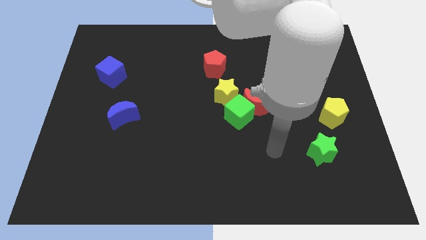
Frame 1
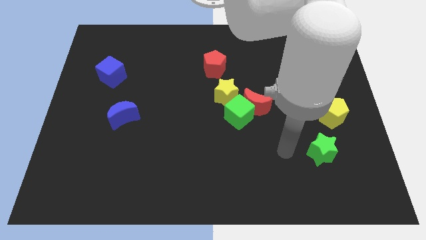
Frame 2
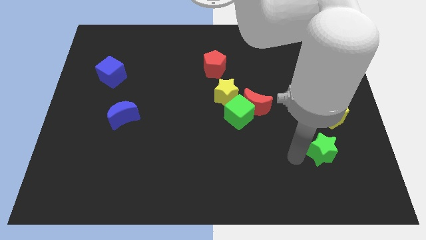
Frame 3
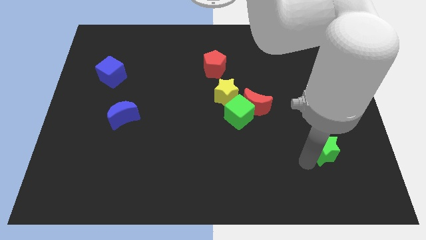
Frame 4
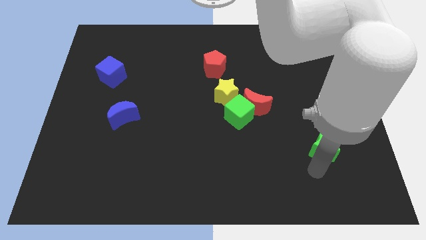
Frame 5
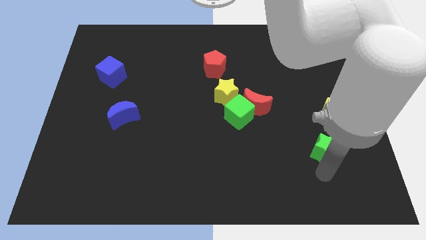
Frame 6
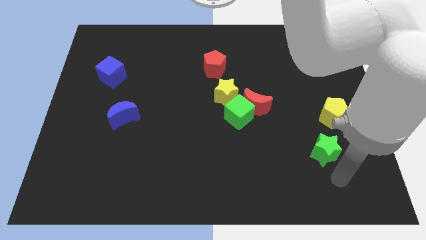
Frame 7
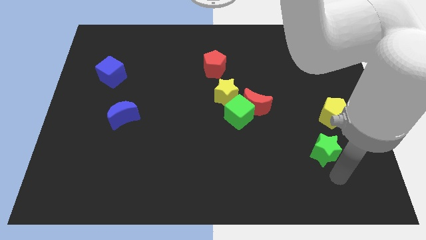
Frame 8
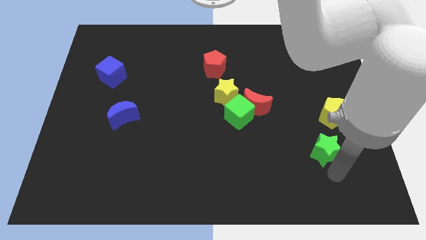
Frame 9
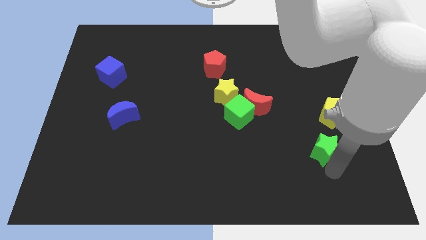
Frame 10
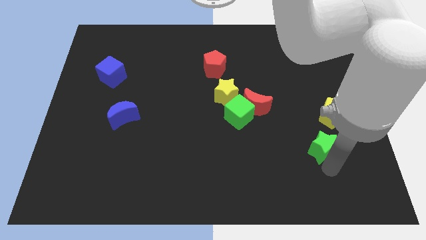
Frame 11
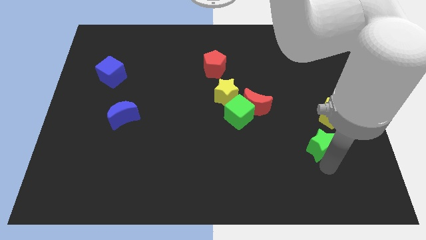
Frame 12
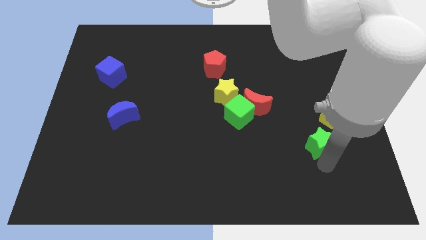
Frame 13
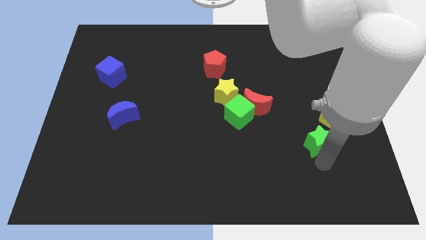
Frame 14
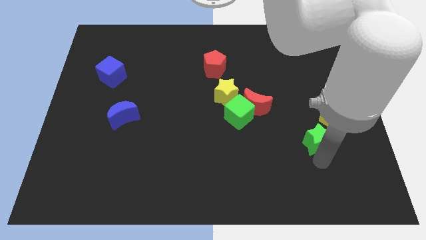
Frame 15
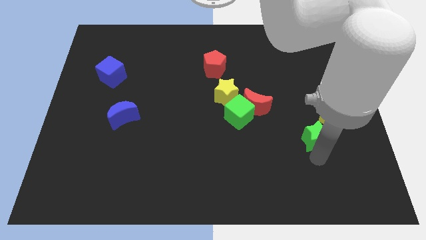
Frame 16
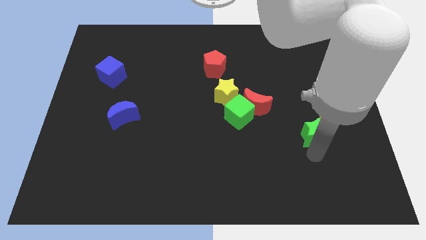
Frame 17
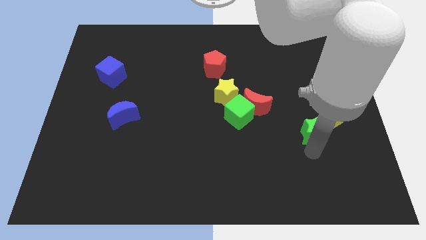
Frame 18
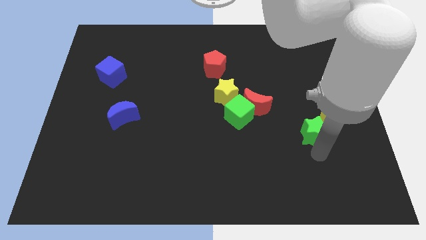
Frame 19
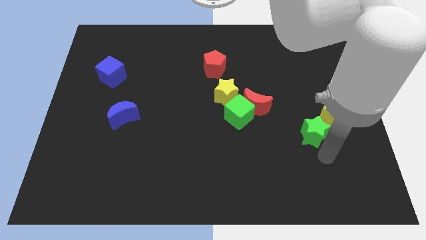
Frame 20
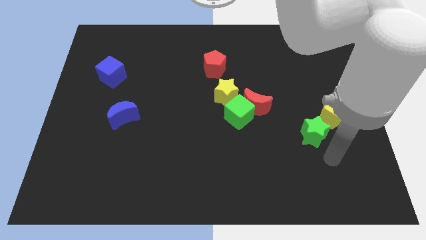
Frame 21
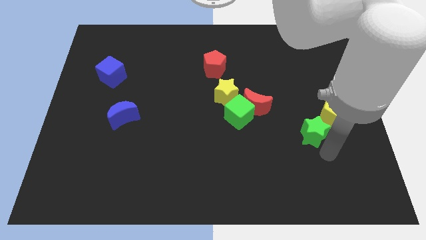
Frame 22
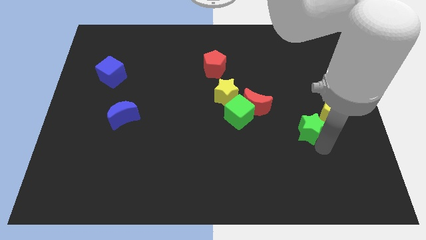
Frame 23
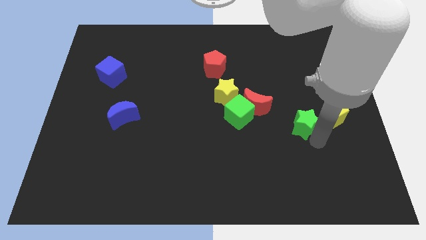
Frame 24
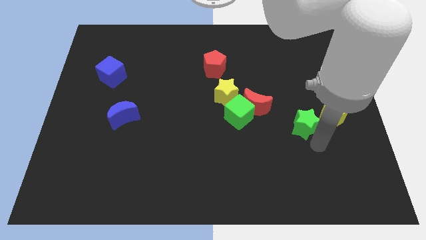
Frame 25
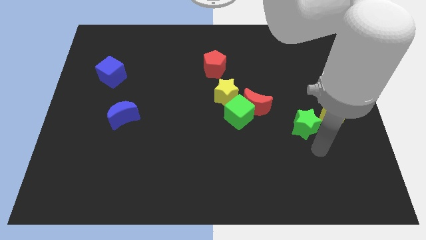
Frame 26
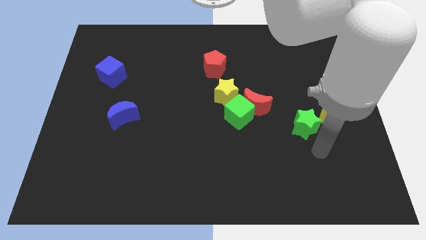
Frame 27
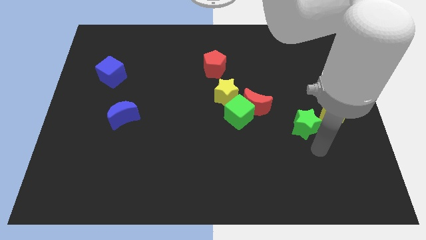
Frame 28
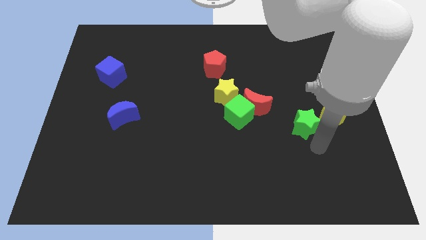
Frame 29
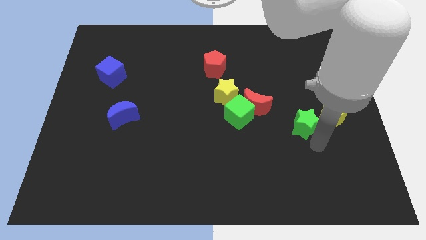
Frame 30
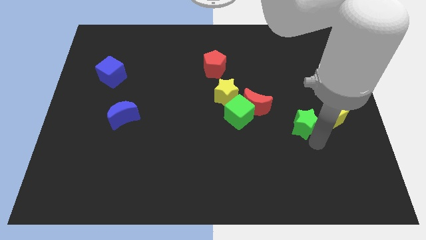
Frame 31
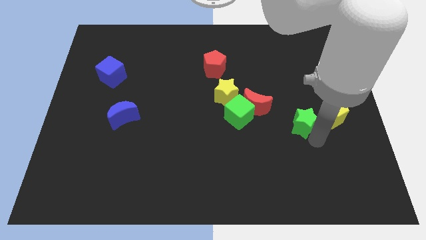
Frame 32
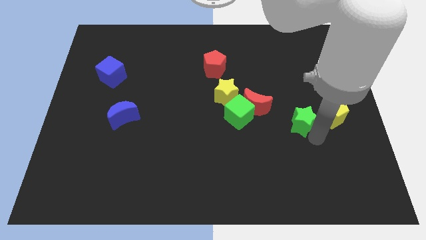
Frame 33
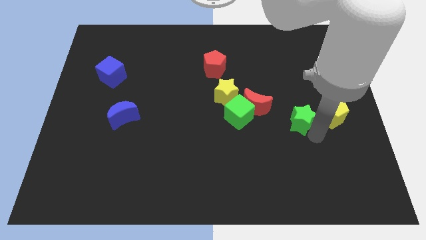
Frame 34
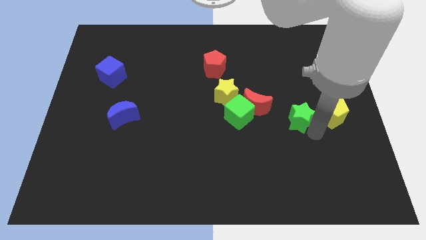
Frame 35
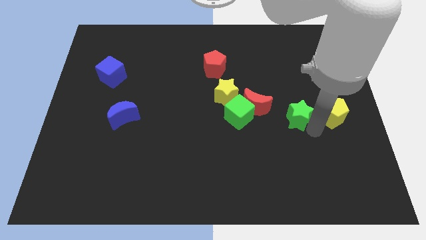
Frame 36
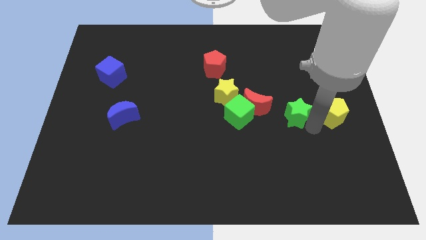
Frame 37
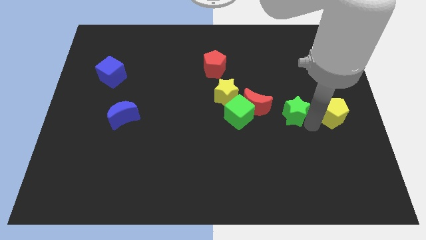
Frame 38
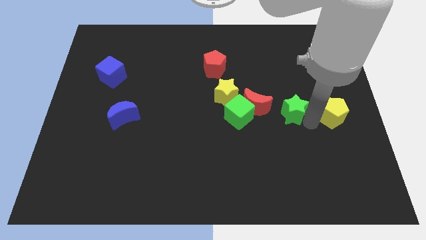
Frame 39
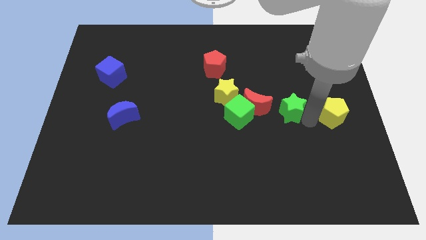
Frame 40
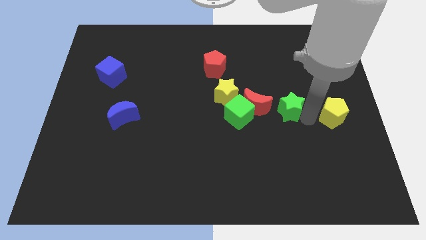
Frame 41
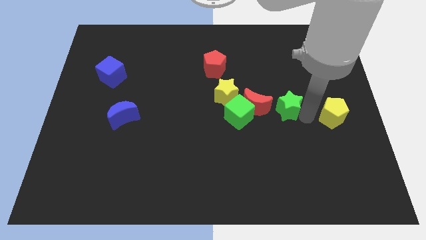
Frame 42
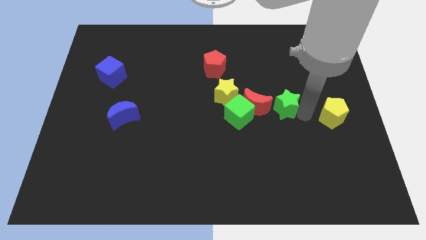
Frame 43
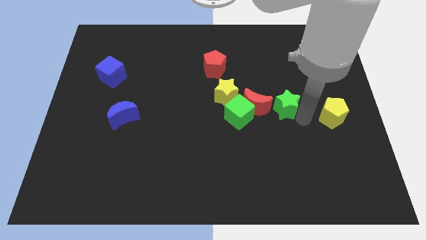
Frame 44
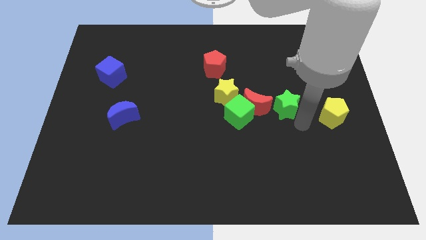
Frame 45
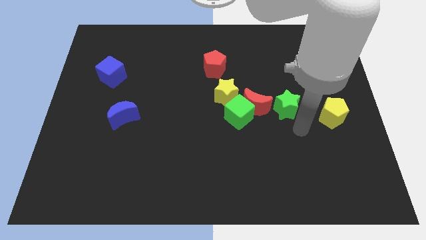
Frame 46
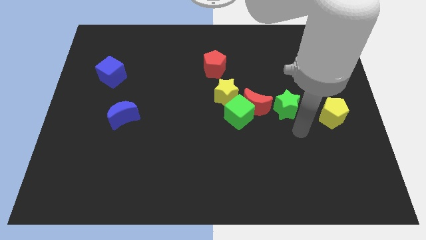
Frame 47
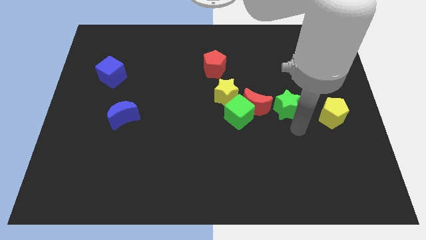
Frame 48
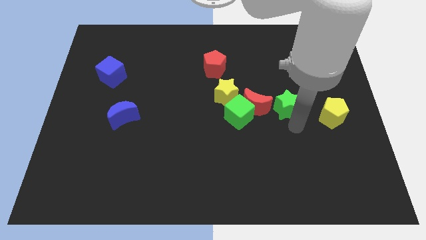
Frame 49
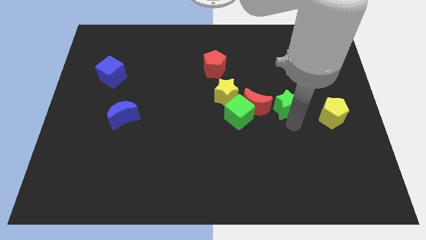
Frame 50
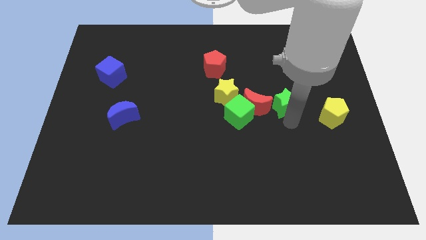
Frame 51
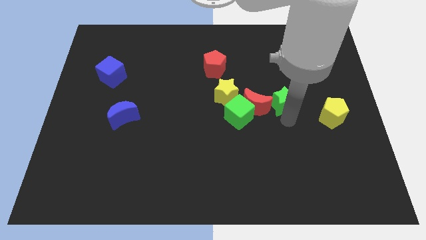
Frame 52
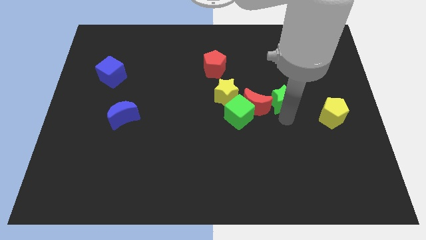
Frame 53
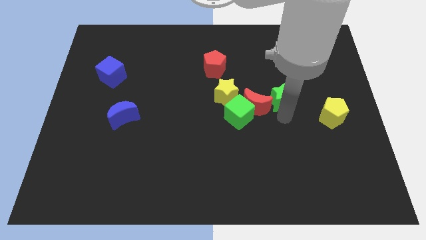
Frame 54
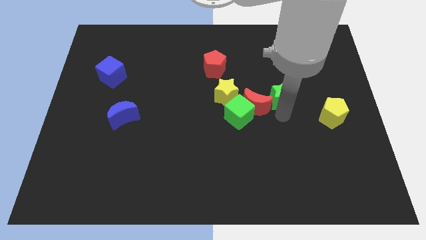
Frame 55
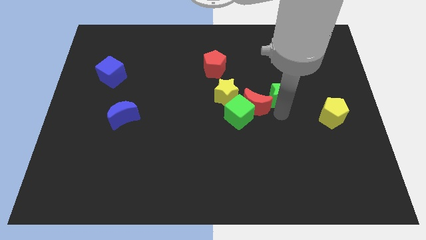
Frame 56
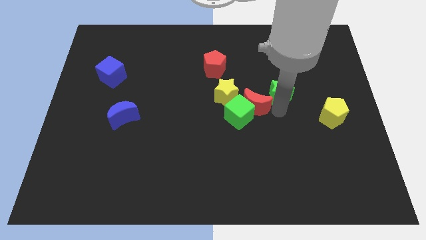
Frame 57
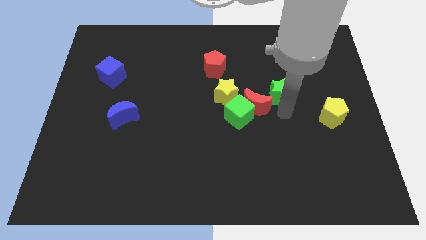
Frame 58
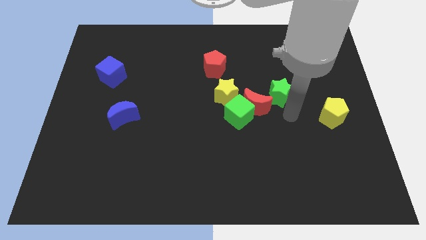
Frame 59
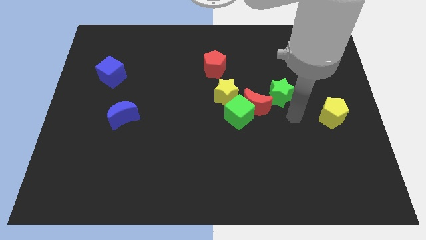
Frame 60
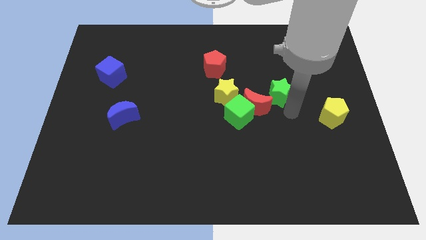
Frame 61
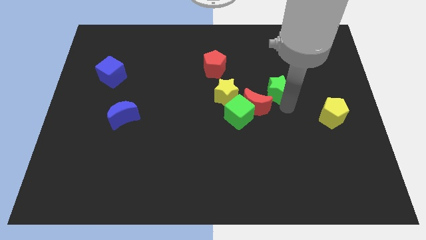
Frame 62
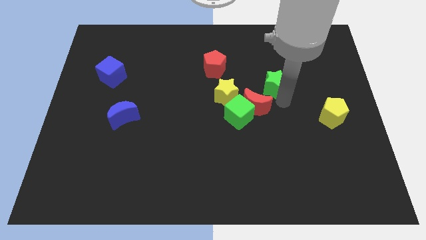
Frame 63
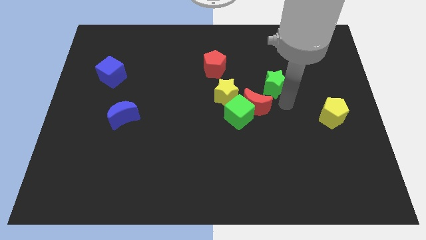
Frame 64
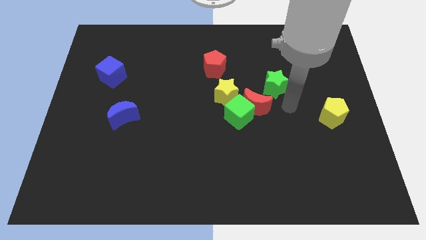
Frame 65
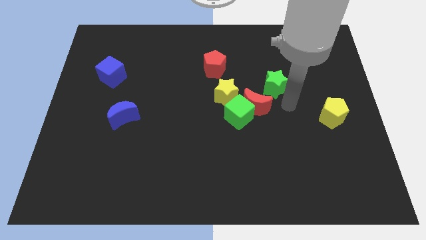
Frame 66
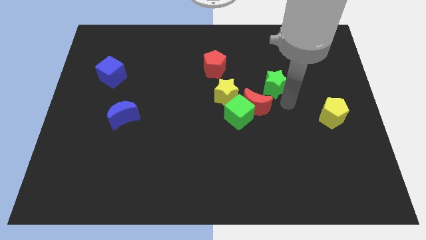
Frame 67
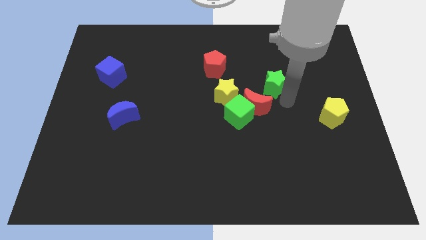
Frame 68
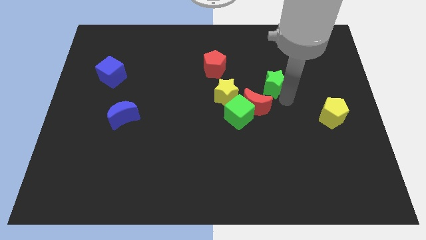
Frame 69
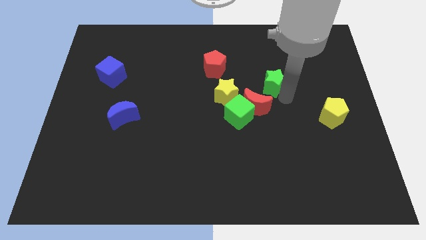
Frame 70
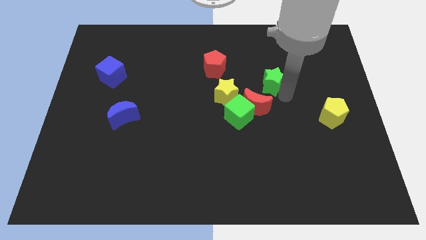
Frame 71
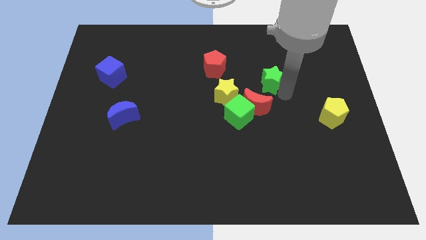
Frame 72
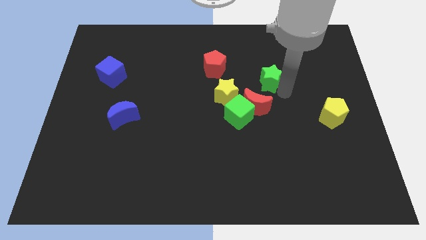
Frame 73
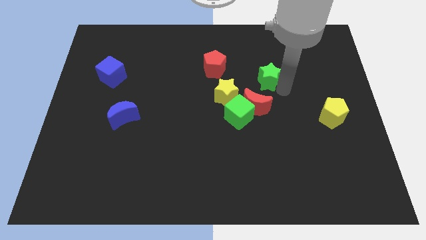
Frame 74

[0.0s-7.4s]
move the green star right of the red pentagon
